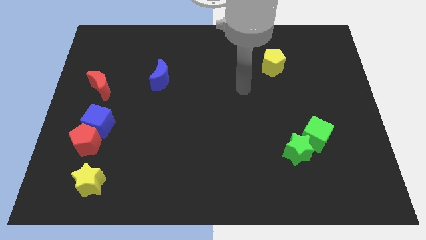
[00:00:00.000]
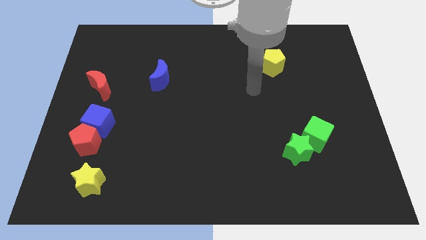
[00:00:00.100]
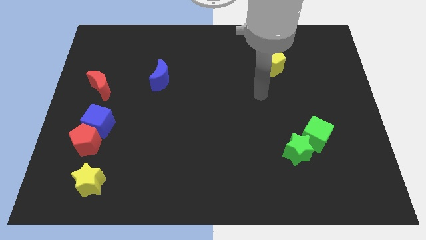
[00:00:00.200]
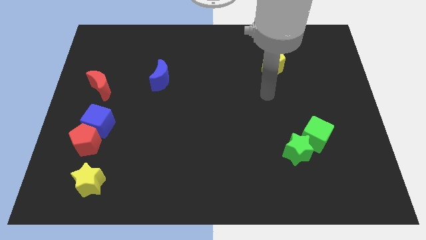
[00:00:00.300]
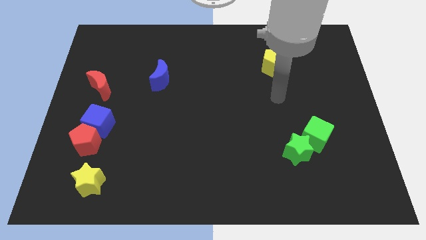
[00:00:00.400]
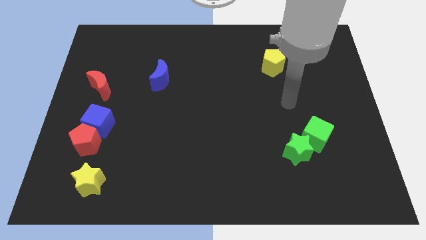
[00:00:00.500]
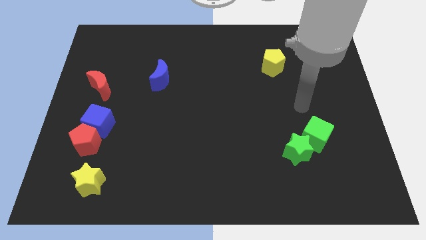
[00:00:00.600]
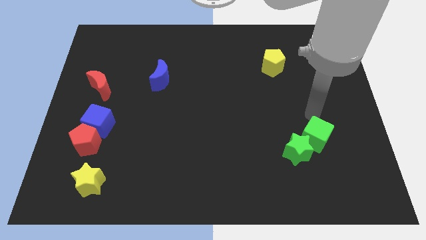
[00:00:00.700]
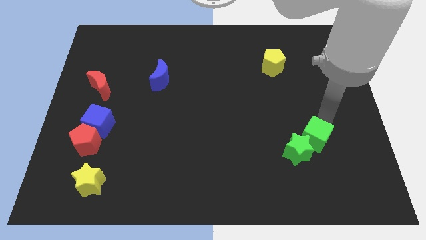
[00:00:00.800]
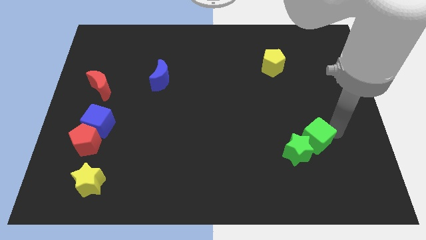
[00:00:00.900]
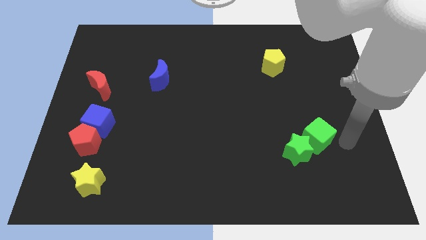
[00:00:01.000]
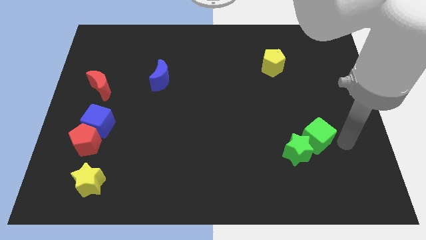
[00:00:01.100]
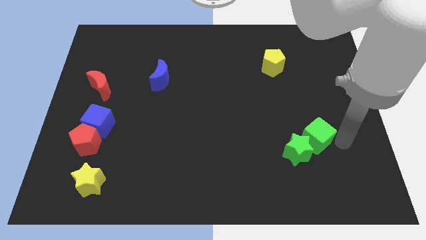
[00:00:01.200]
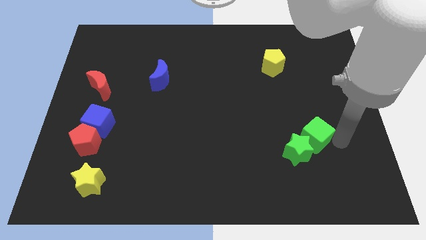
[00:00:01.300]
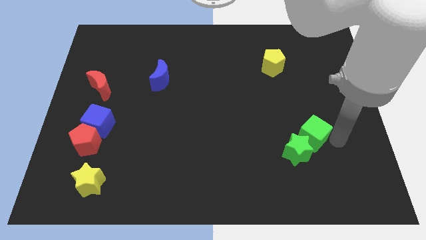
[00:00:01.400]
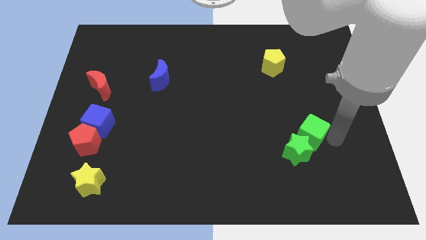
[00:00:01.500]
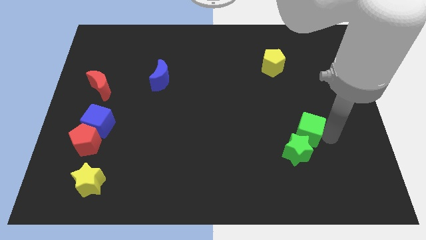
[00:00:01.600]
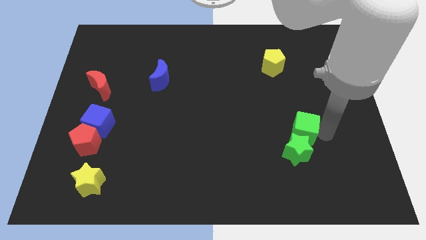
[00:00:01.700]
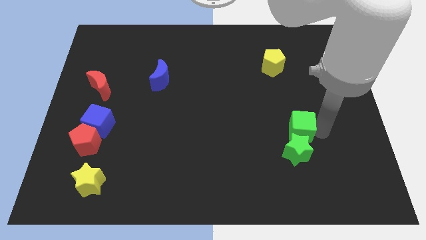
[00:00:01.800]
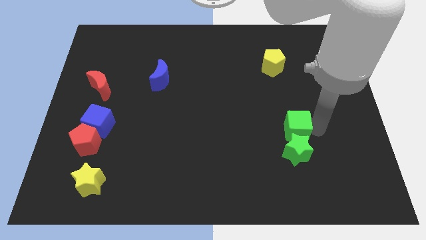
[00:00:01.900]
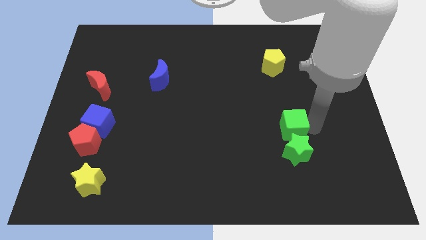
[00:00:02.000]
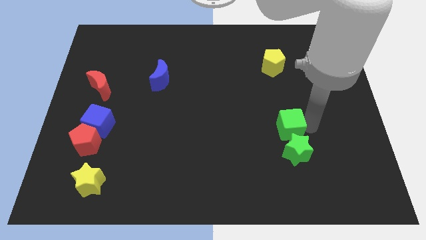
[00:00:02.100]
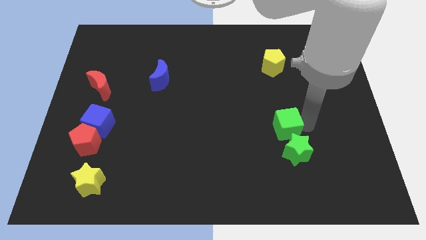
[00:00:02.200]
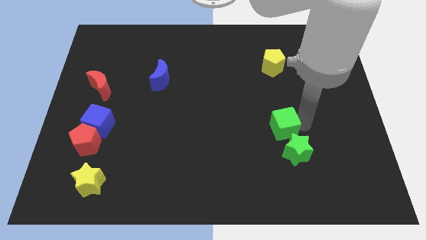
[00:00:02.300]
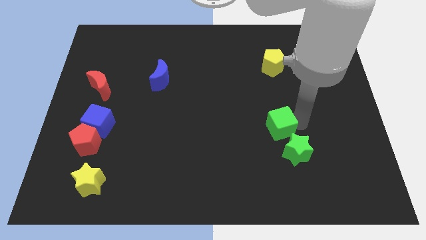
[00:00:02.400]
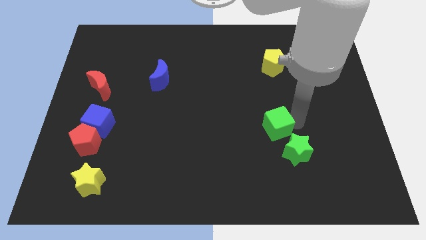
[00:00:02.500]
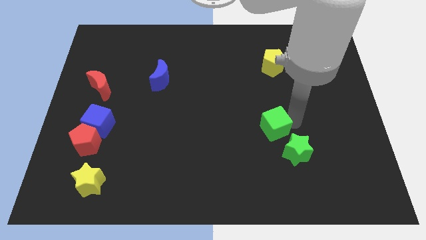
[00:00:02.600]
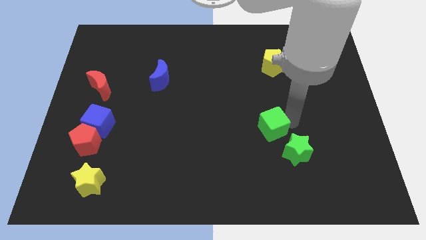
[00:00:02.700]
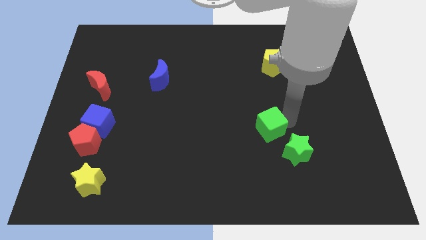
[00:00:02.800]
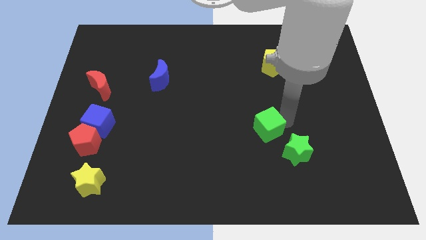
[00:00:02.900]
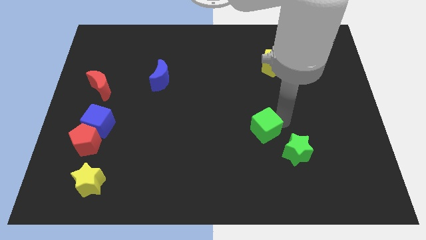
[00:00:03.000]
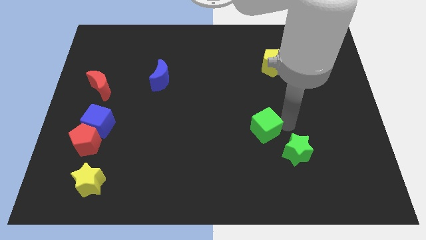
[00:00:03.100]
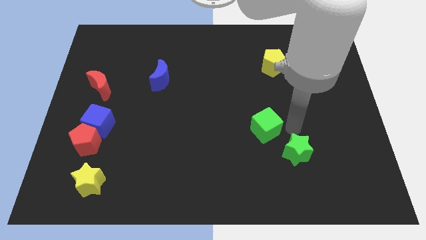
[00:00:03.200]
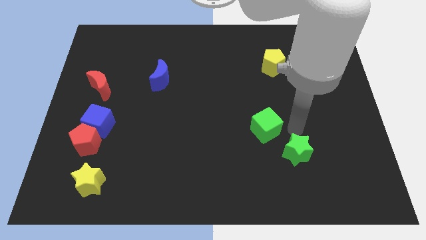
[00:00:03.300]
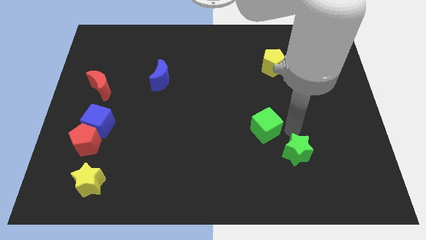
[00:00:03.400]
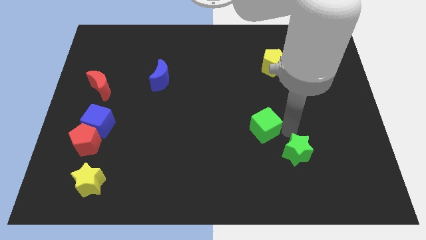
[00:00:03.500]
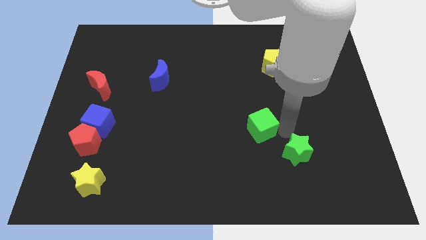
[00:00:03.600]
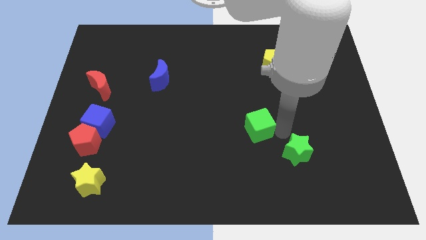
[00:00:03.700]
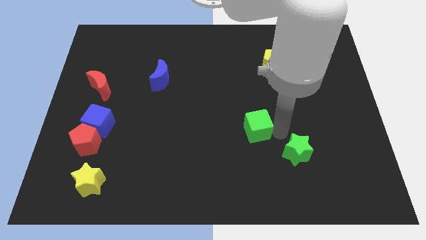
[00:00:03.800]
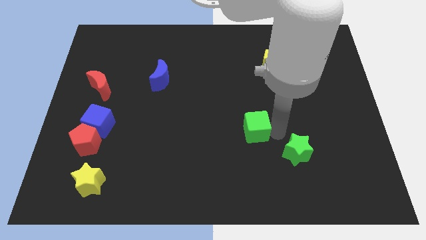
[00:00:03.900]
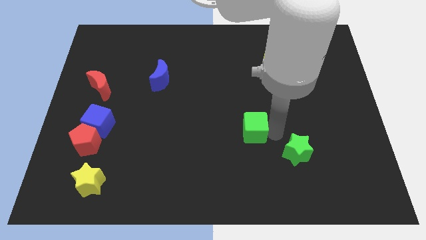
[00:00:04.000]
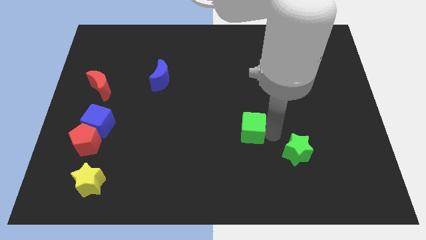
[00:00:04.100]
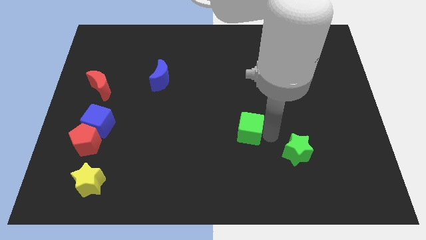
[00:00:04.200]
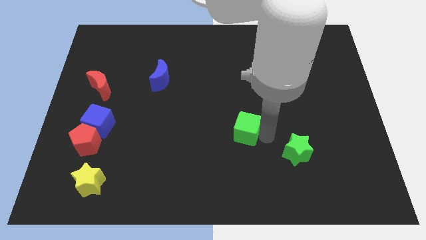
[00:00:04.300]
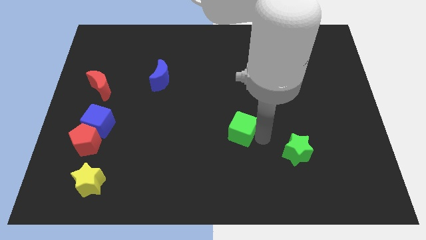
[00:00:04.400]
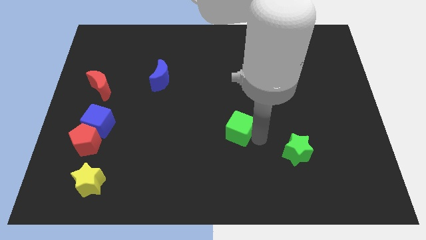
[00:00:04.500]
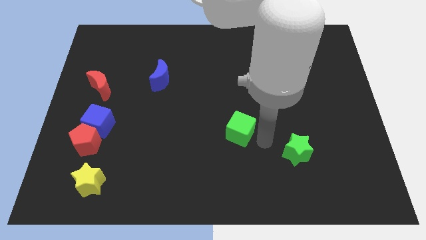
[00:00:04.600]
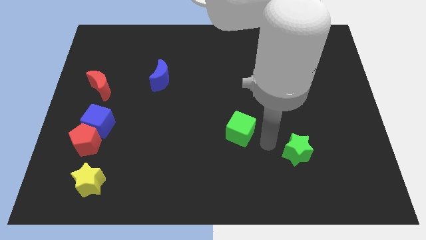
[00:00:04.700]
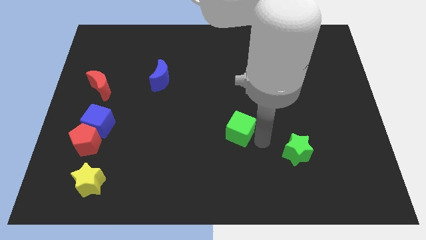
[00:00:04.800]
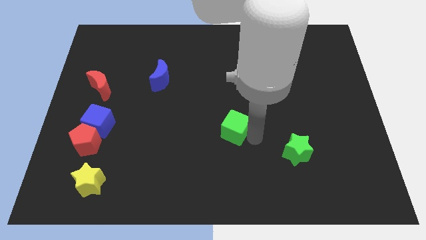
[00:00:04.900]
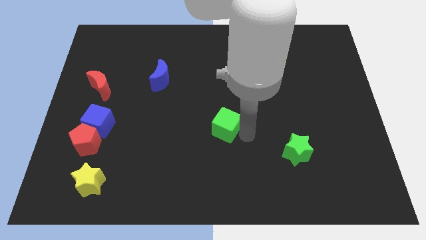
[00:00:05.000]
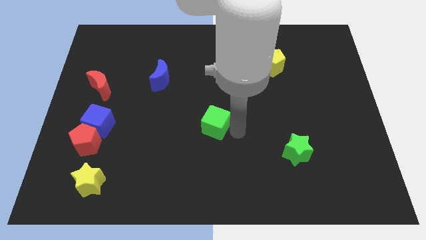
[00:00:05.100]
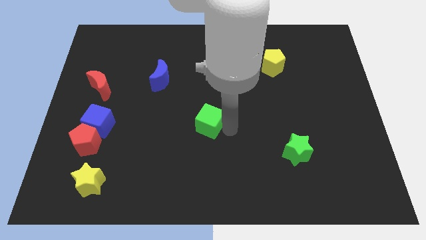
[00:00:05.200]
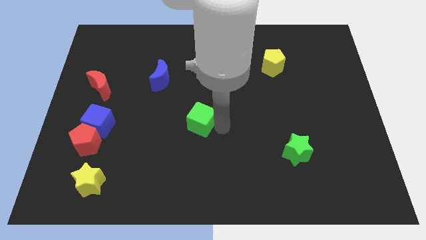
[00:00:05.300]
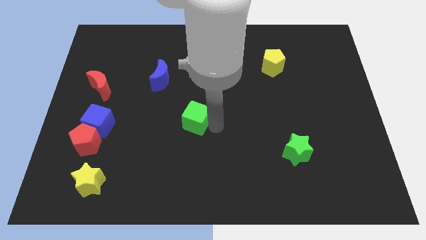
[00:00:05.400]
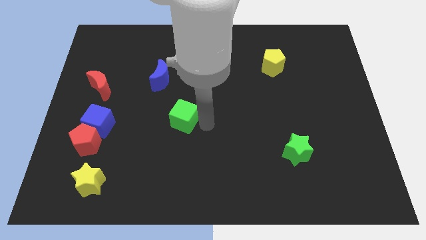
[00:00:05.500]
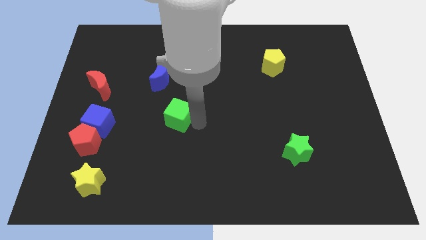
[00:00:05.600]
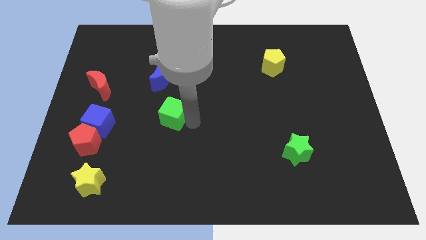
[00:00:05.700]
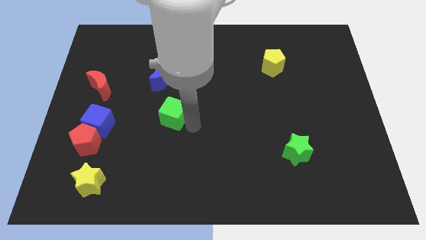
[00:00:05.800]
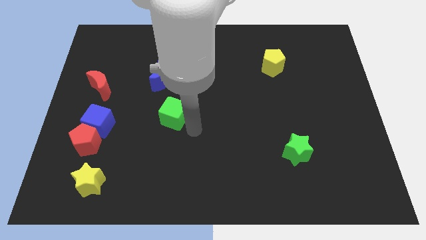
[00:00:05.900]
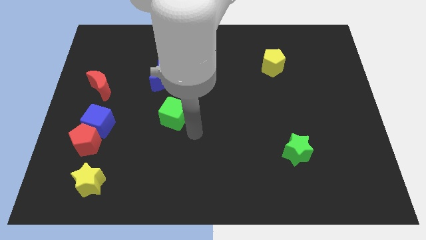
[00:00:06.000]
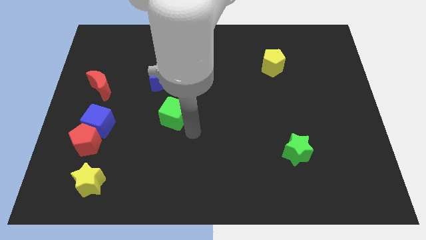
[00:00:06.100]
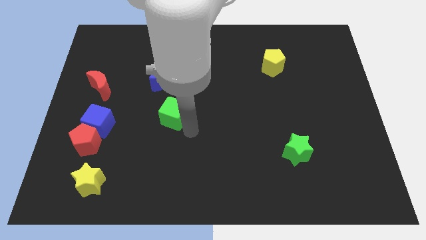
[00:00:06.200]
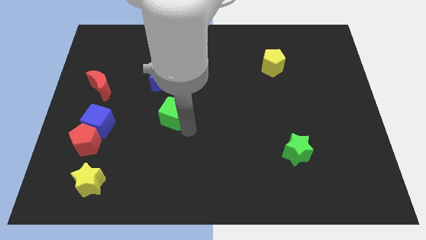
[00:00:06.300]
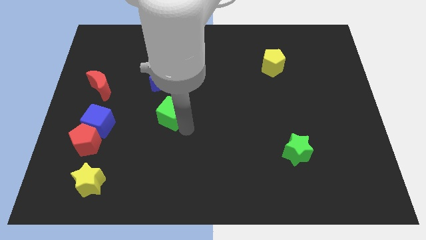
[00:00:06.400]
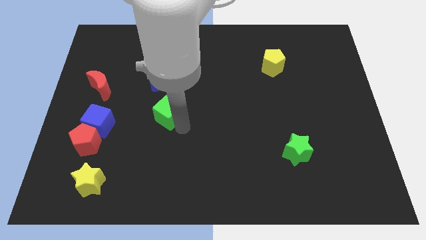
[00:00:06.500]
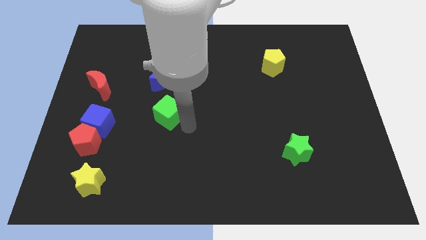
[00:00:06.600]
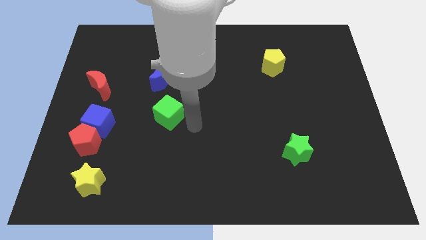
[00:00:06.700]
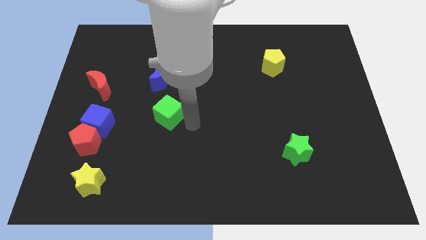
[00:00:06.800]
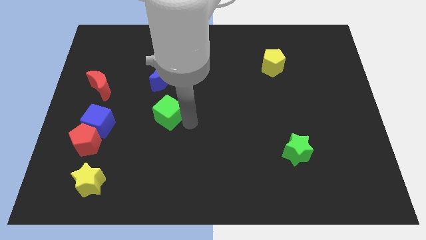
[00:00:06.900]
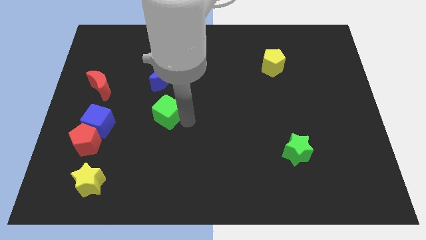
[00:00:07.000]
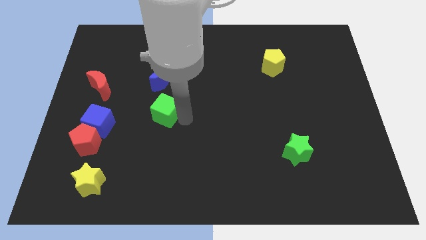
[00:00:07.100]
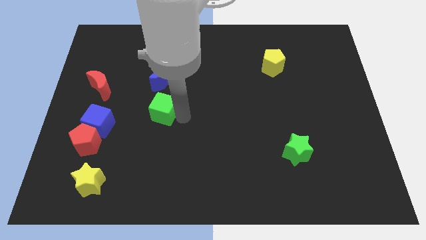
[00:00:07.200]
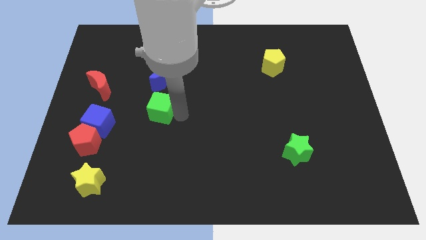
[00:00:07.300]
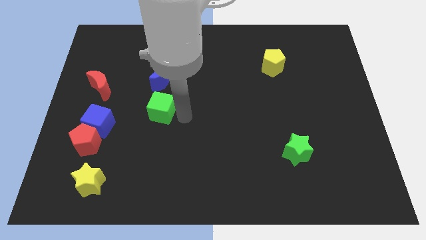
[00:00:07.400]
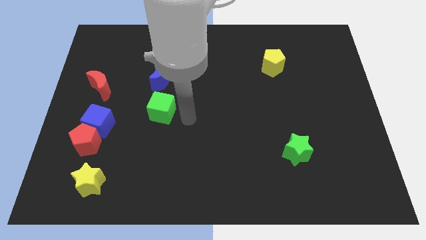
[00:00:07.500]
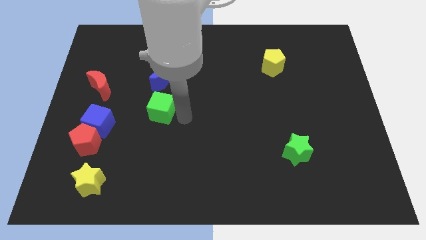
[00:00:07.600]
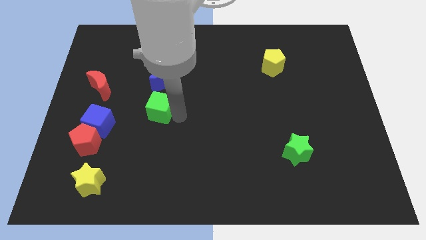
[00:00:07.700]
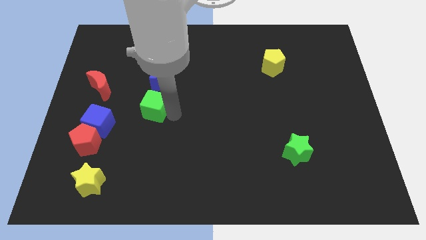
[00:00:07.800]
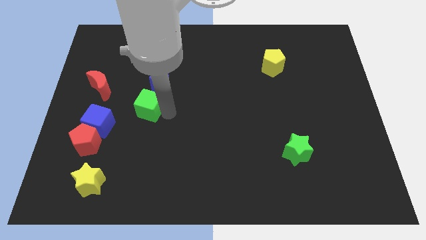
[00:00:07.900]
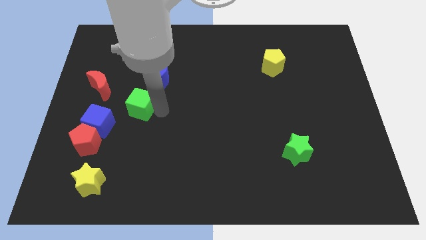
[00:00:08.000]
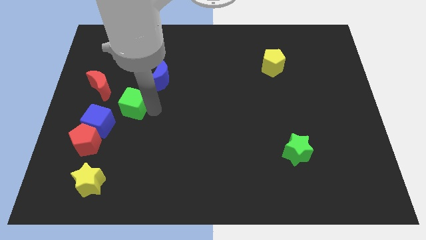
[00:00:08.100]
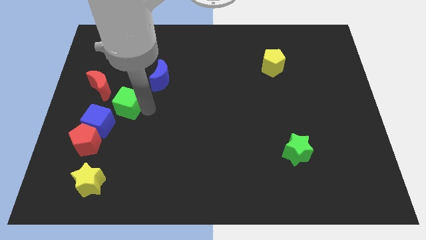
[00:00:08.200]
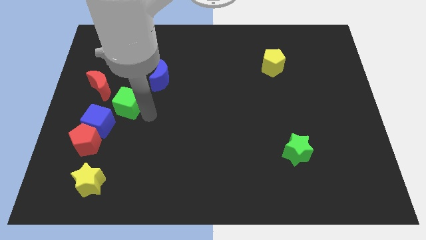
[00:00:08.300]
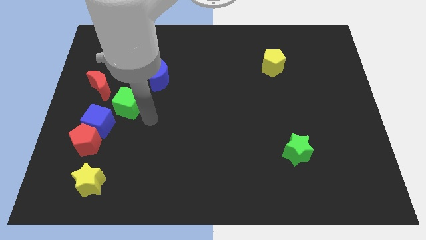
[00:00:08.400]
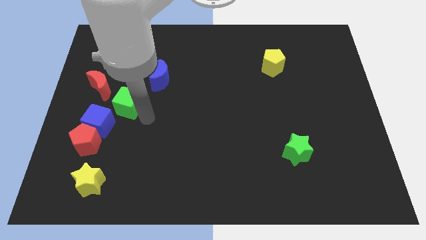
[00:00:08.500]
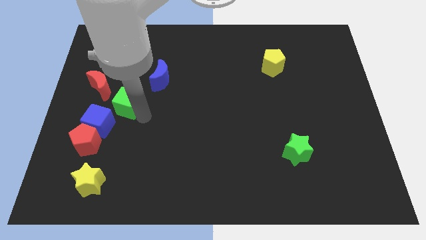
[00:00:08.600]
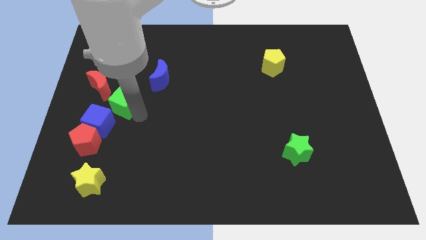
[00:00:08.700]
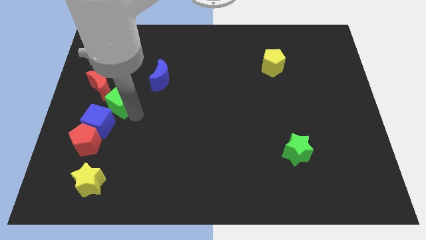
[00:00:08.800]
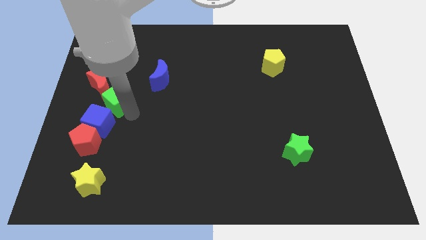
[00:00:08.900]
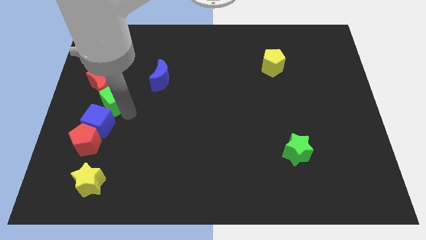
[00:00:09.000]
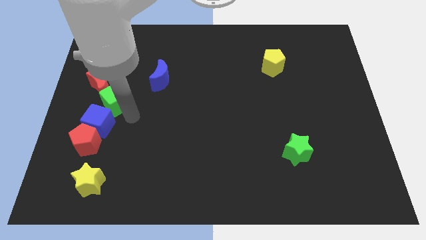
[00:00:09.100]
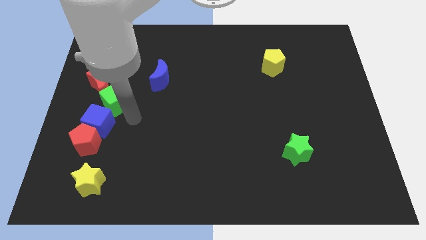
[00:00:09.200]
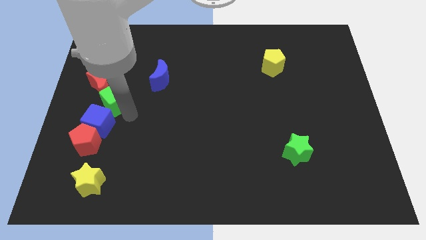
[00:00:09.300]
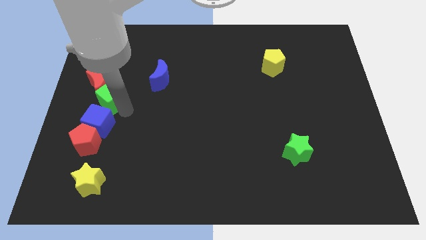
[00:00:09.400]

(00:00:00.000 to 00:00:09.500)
push the green cube close to the red moon
